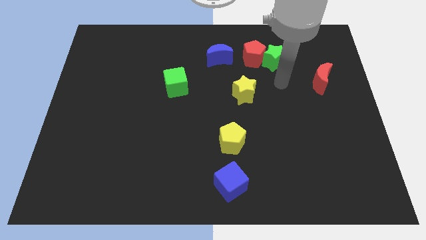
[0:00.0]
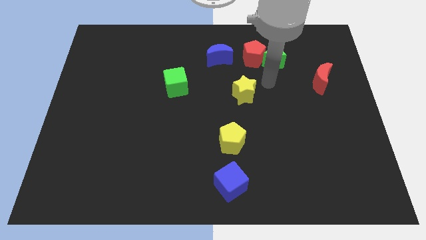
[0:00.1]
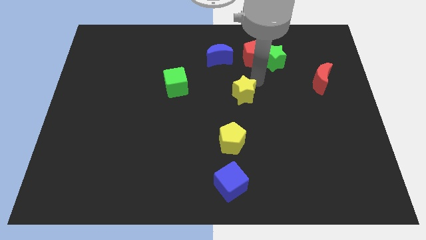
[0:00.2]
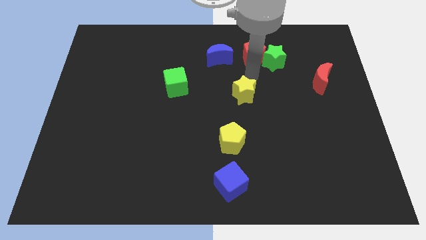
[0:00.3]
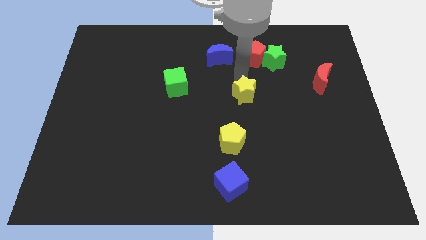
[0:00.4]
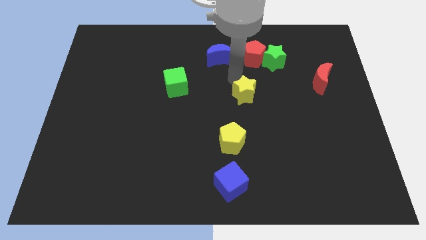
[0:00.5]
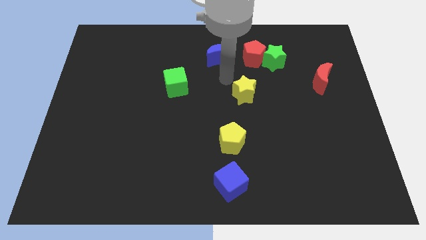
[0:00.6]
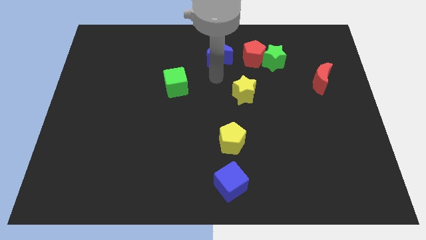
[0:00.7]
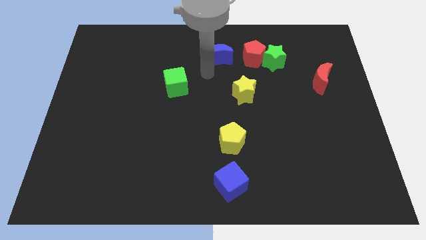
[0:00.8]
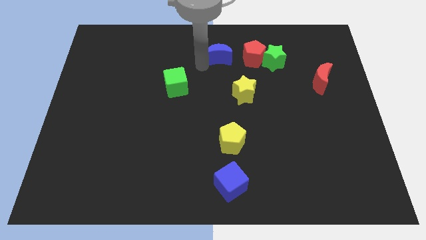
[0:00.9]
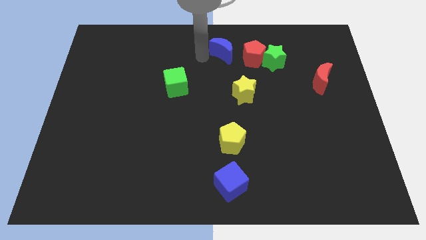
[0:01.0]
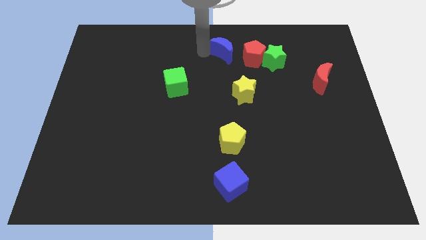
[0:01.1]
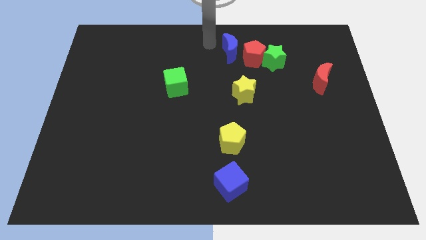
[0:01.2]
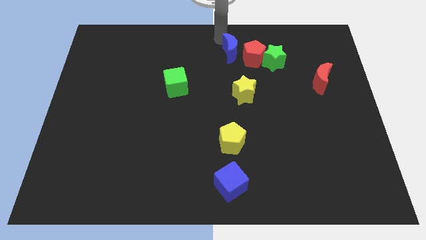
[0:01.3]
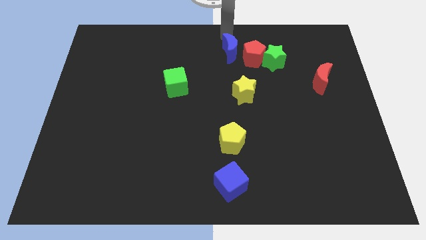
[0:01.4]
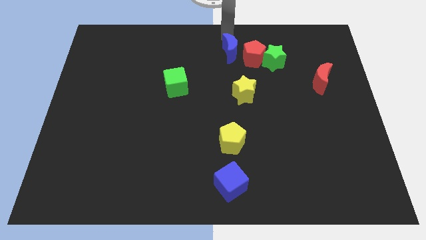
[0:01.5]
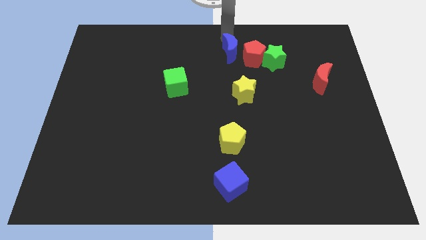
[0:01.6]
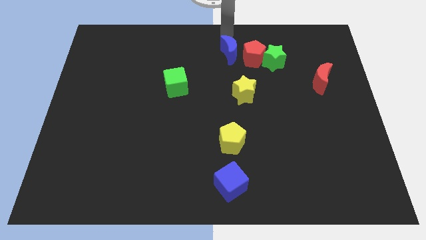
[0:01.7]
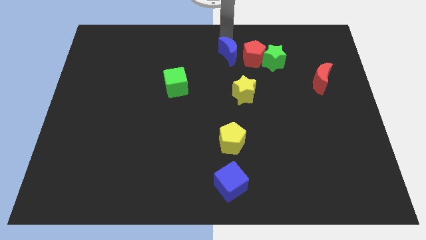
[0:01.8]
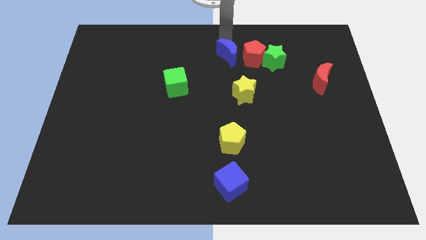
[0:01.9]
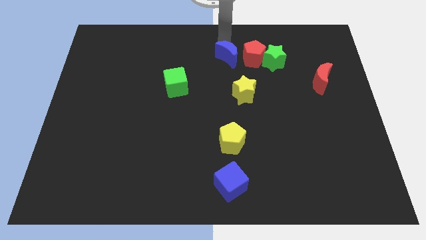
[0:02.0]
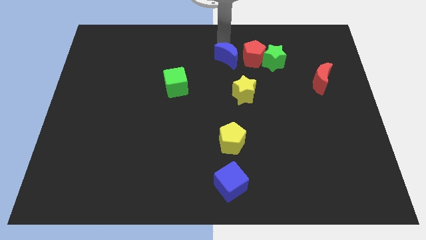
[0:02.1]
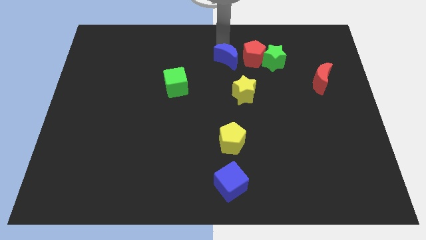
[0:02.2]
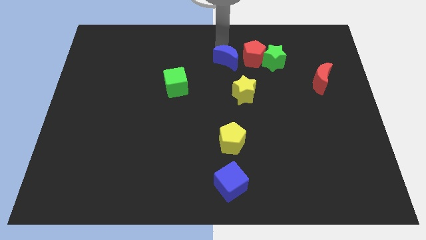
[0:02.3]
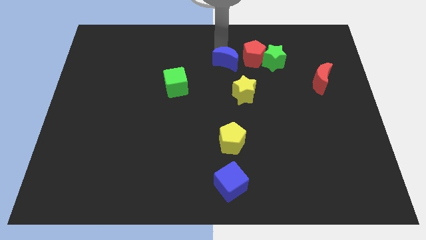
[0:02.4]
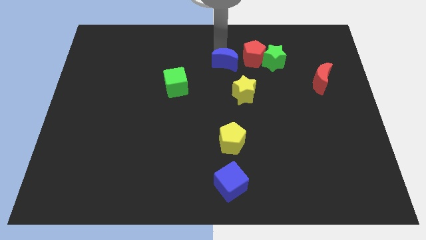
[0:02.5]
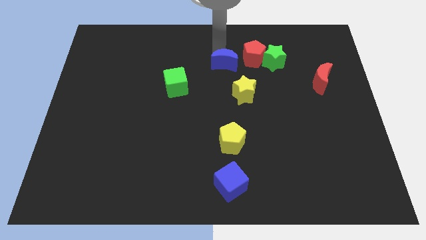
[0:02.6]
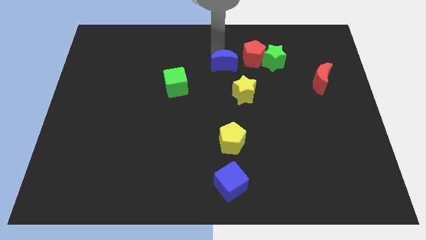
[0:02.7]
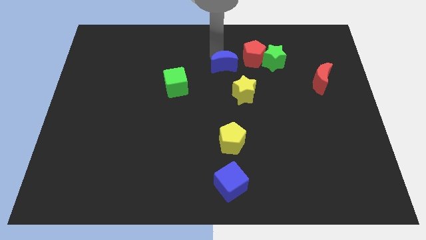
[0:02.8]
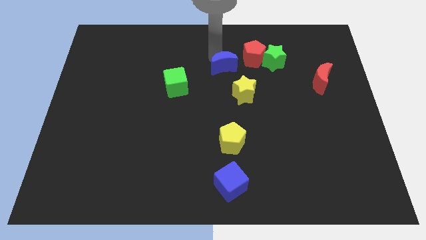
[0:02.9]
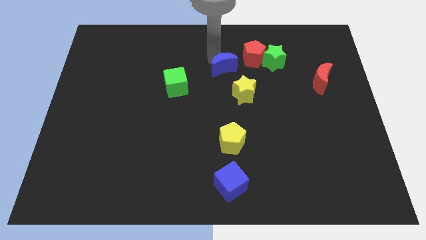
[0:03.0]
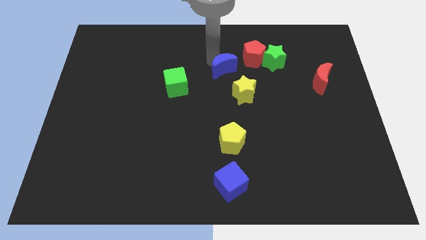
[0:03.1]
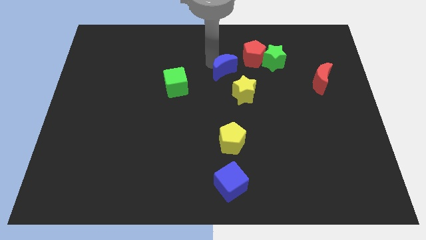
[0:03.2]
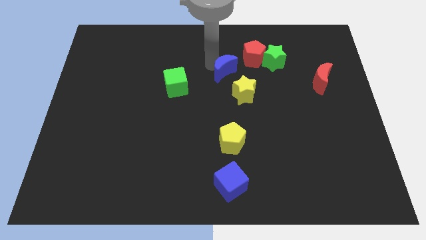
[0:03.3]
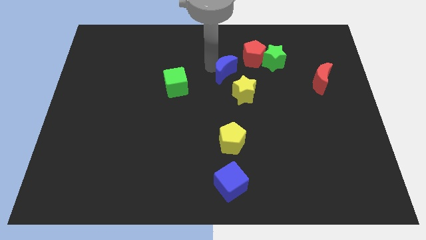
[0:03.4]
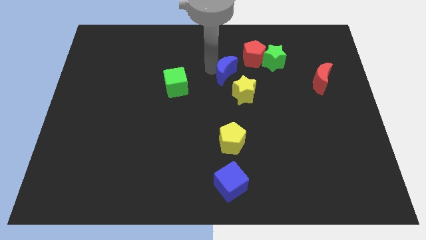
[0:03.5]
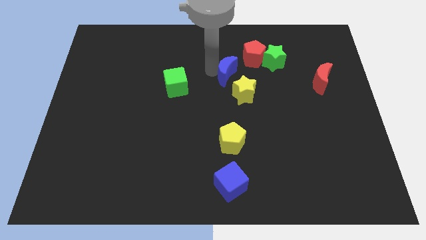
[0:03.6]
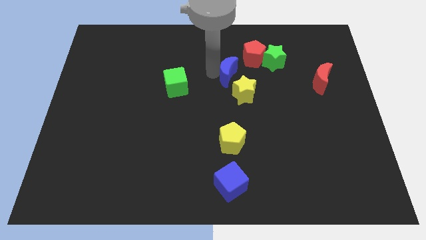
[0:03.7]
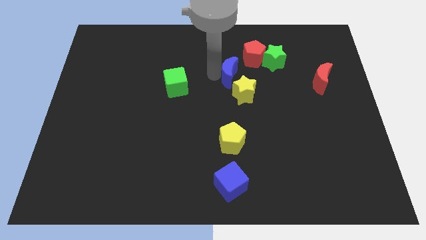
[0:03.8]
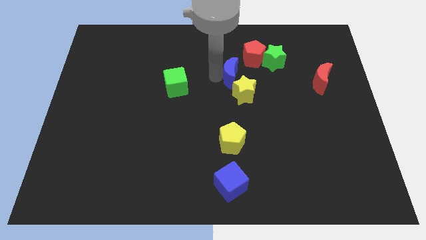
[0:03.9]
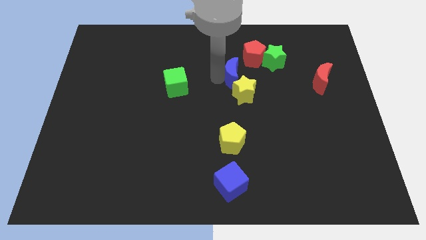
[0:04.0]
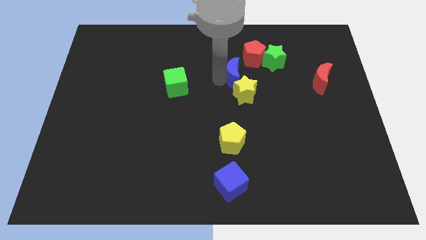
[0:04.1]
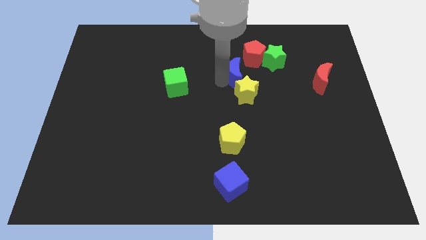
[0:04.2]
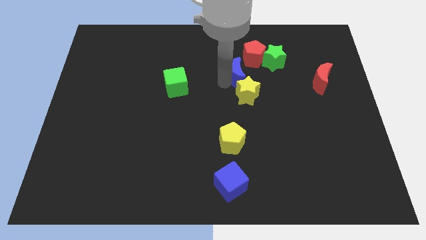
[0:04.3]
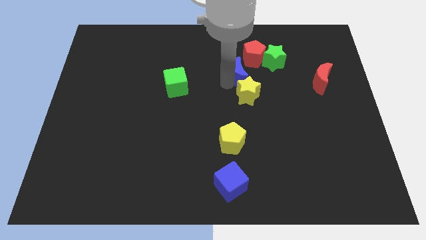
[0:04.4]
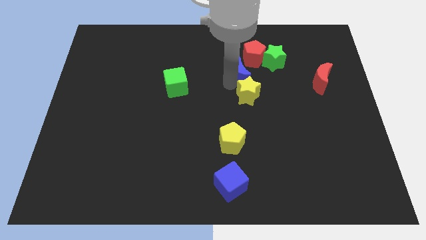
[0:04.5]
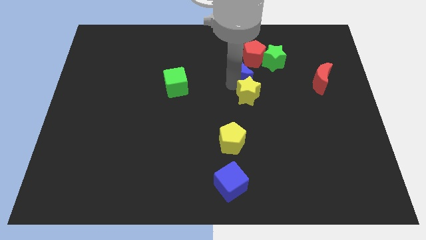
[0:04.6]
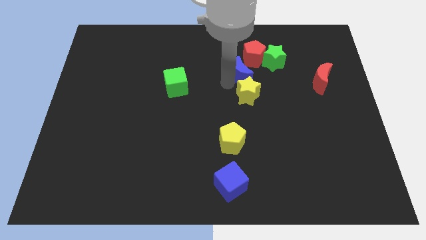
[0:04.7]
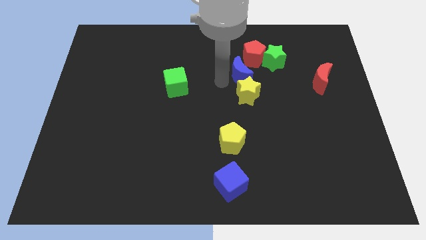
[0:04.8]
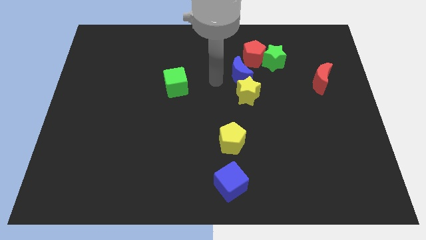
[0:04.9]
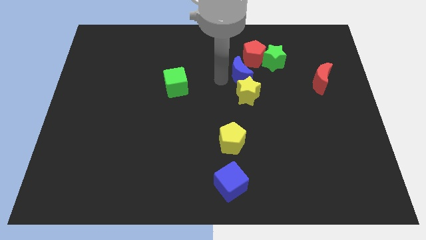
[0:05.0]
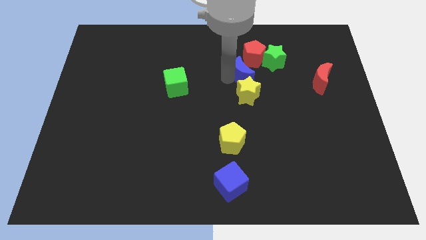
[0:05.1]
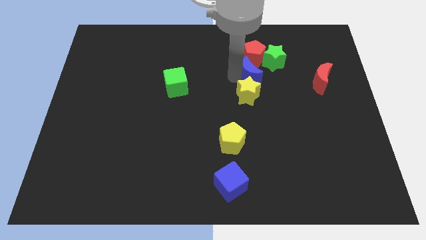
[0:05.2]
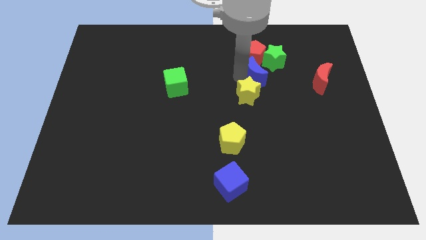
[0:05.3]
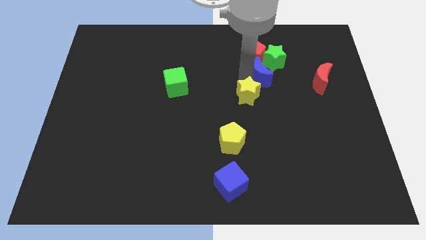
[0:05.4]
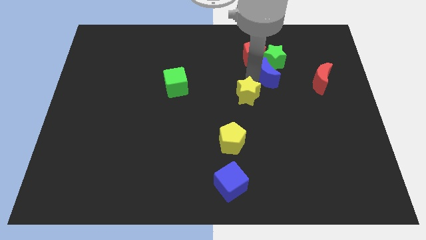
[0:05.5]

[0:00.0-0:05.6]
slide the blue moon close to the green star

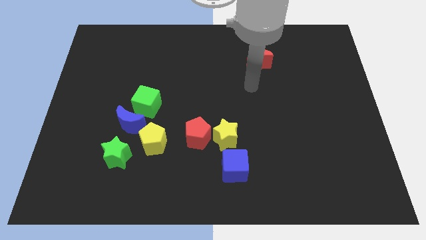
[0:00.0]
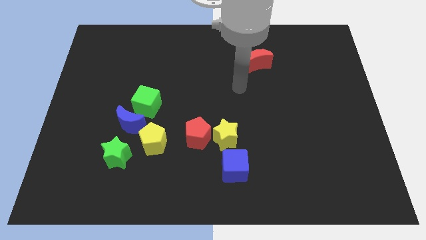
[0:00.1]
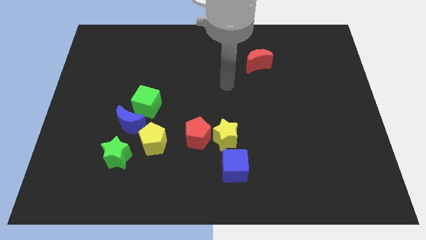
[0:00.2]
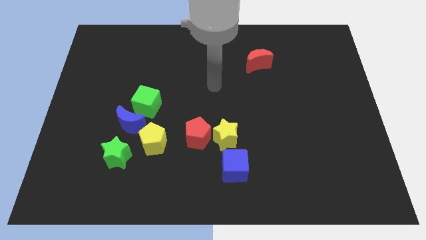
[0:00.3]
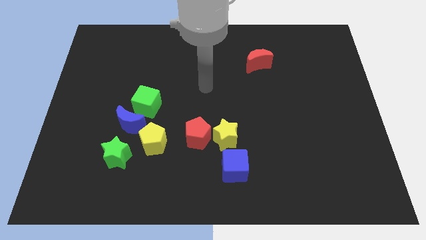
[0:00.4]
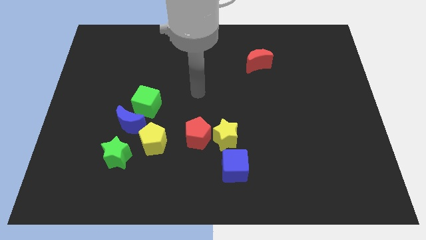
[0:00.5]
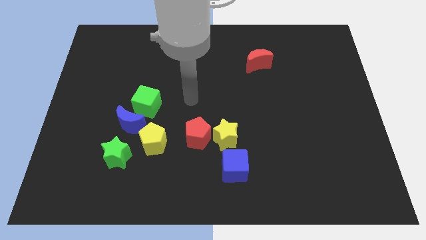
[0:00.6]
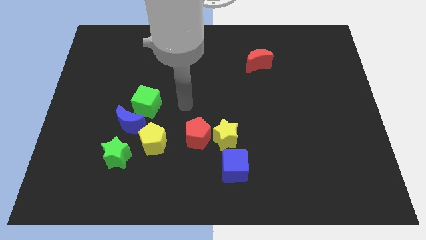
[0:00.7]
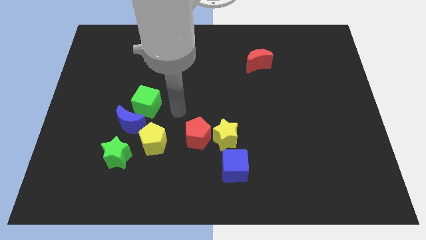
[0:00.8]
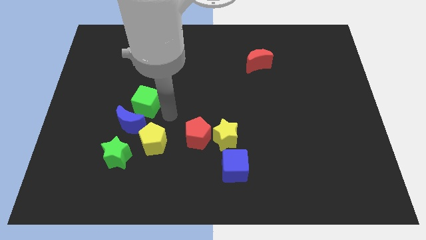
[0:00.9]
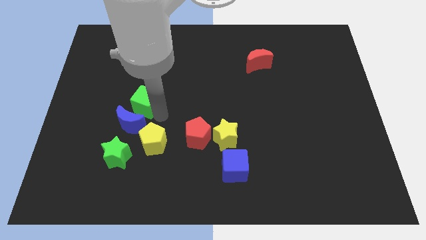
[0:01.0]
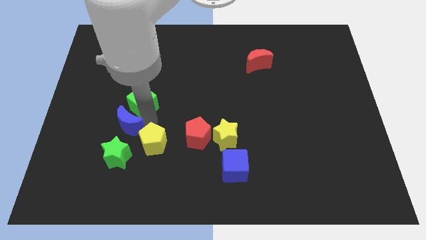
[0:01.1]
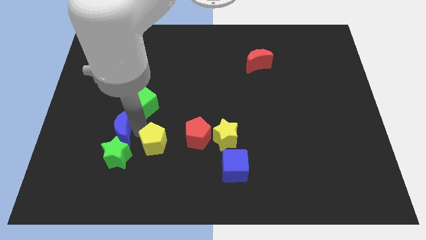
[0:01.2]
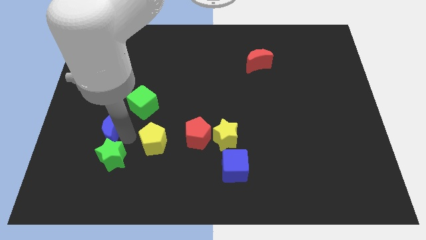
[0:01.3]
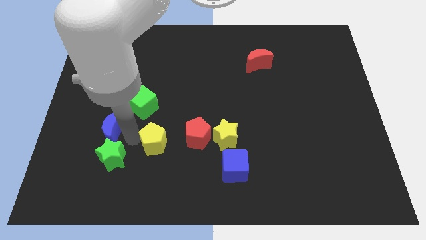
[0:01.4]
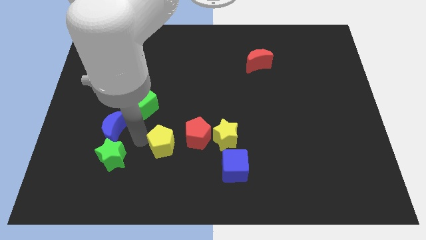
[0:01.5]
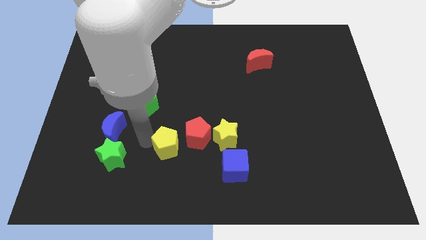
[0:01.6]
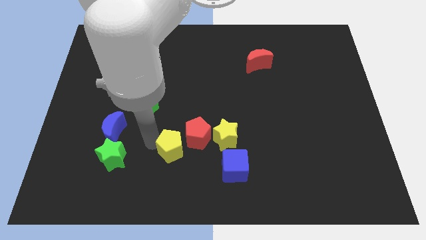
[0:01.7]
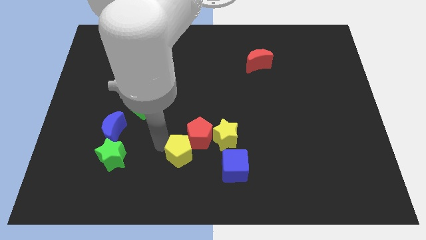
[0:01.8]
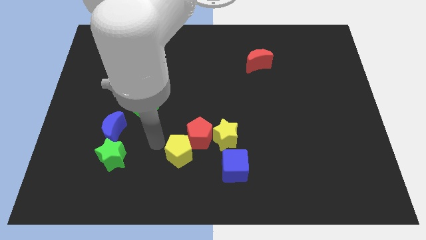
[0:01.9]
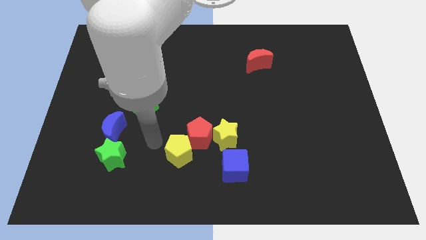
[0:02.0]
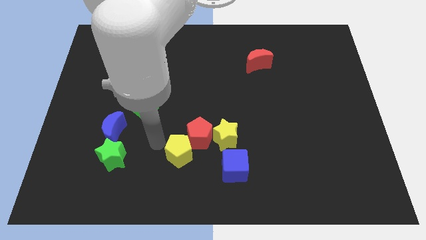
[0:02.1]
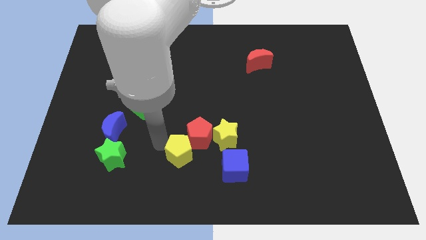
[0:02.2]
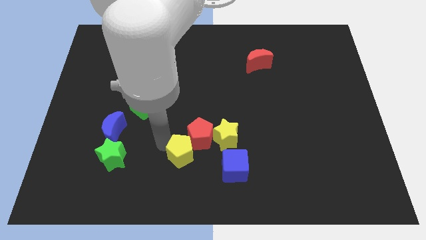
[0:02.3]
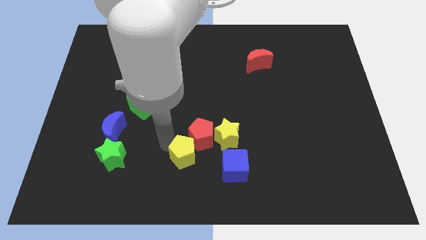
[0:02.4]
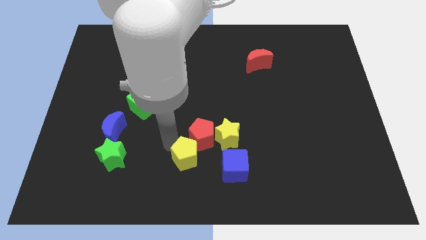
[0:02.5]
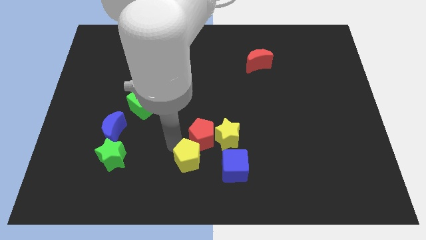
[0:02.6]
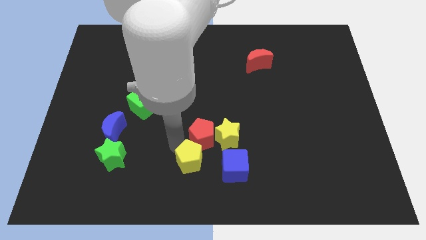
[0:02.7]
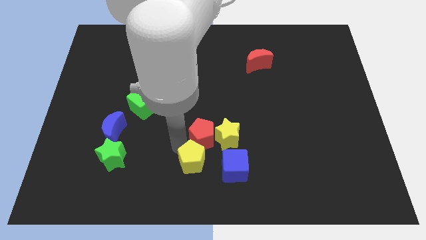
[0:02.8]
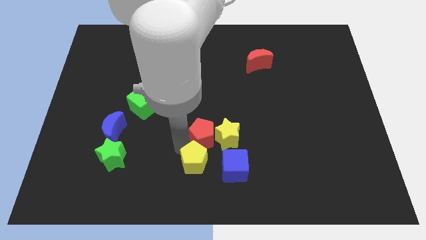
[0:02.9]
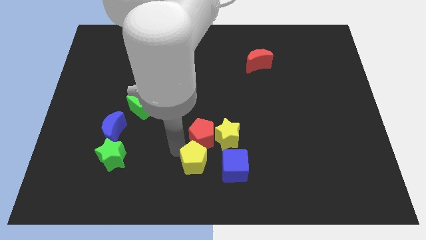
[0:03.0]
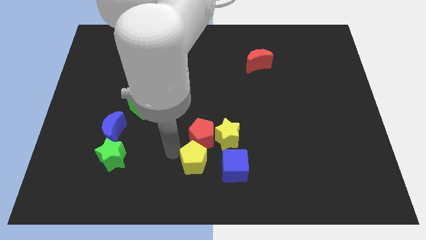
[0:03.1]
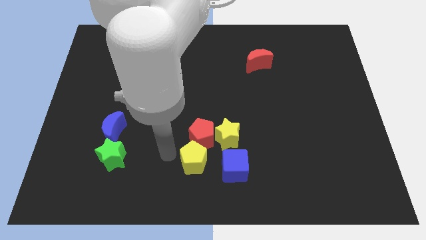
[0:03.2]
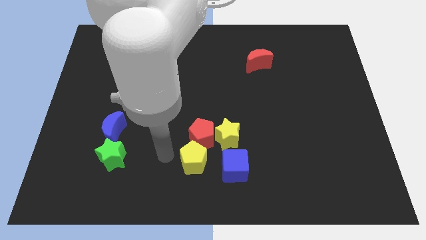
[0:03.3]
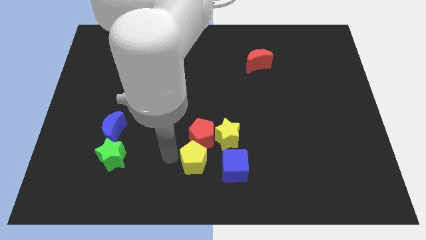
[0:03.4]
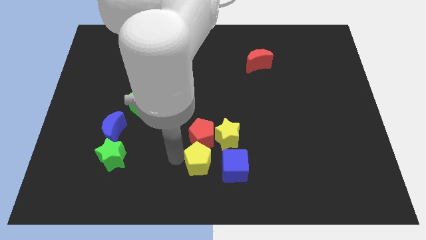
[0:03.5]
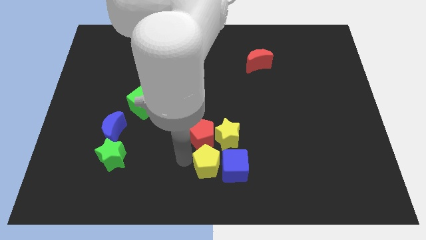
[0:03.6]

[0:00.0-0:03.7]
move the yellow pentagon next to the blue cube
